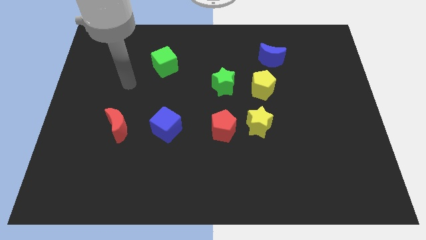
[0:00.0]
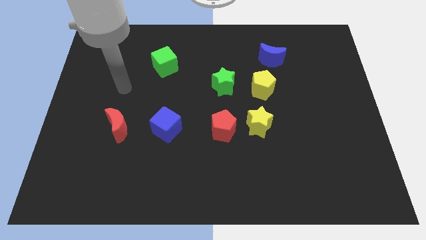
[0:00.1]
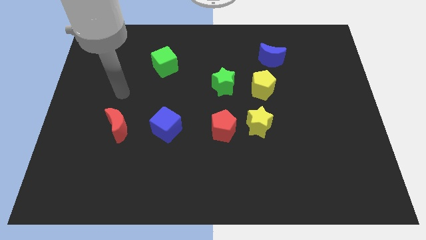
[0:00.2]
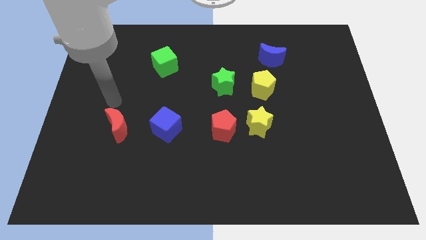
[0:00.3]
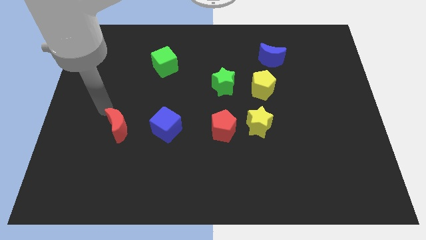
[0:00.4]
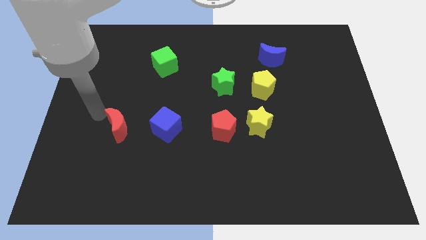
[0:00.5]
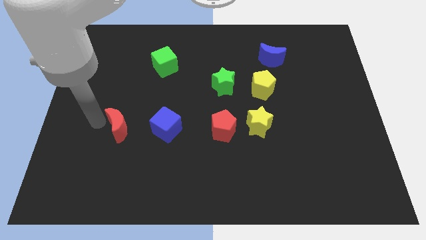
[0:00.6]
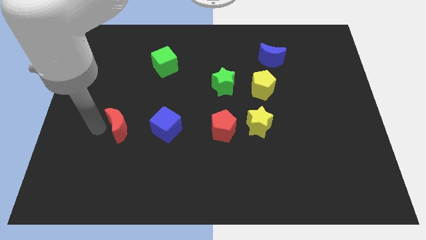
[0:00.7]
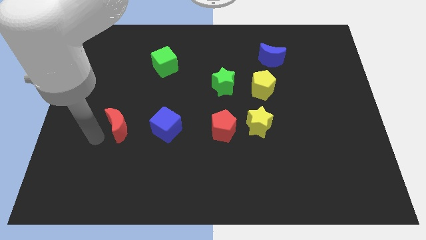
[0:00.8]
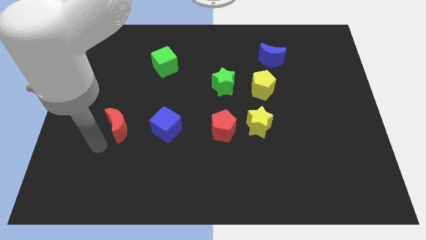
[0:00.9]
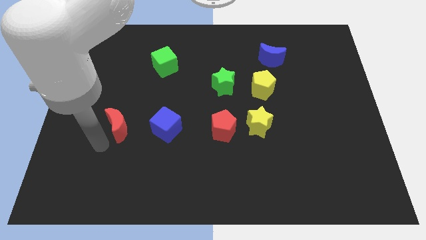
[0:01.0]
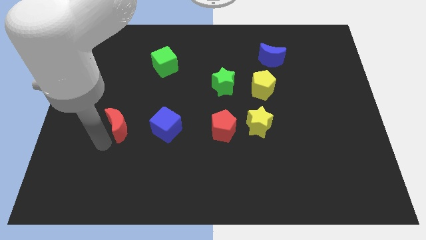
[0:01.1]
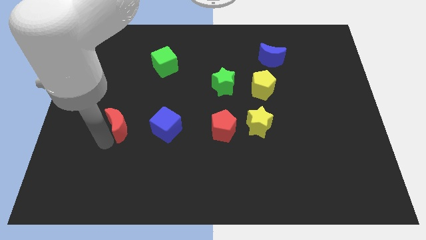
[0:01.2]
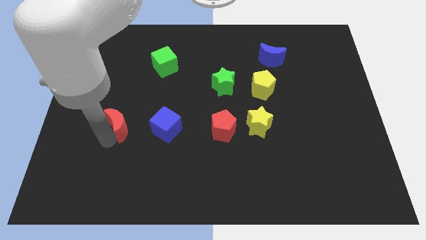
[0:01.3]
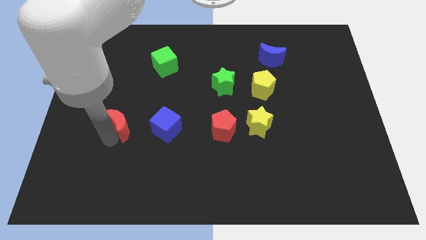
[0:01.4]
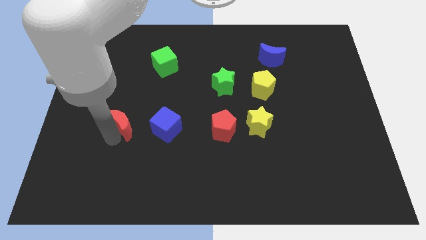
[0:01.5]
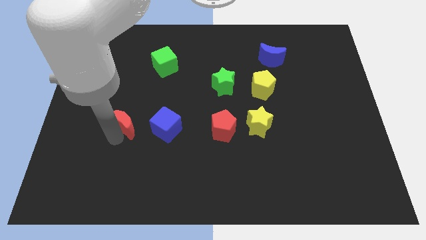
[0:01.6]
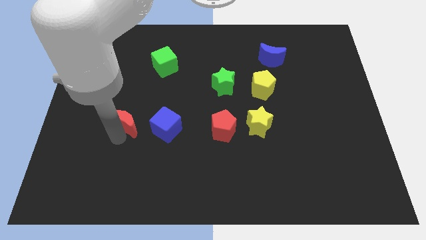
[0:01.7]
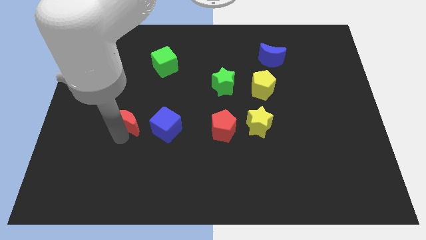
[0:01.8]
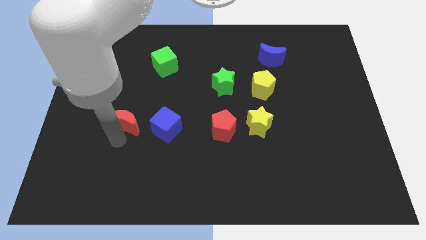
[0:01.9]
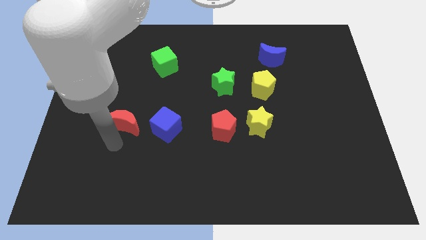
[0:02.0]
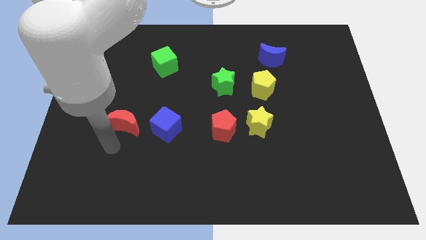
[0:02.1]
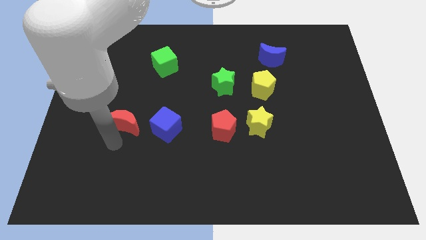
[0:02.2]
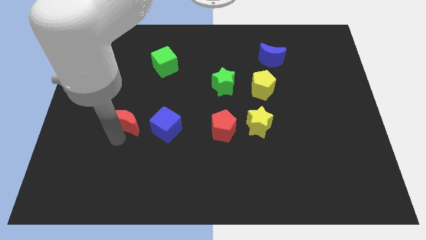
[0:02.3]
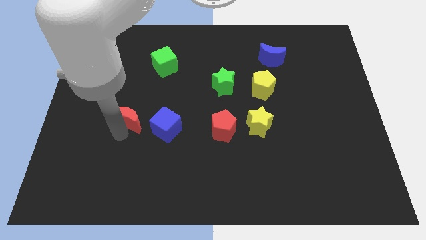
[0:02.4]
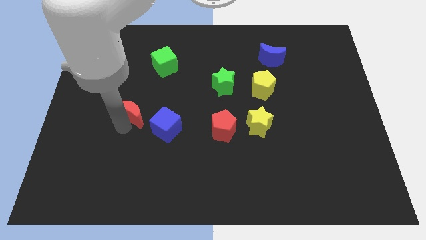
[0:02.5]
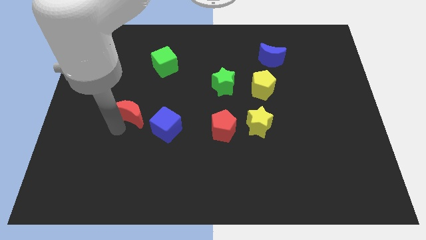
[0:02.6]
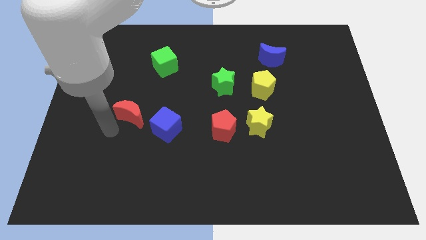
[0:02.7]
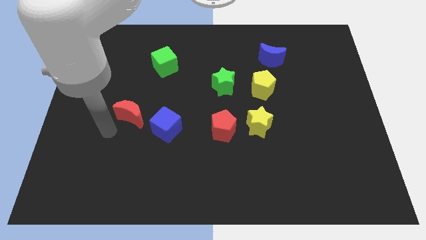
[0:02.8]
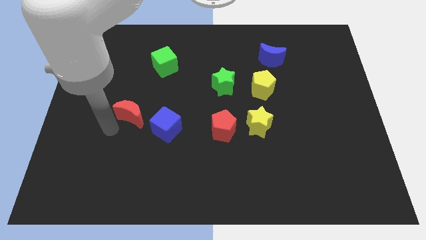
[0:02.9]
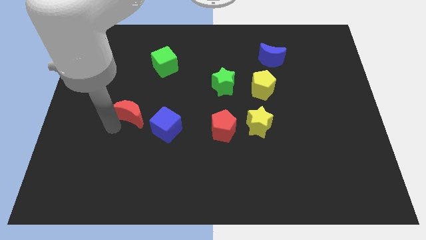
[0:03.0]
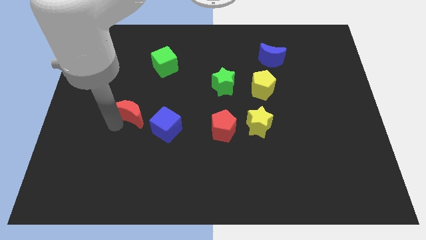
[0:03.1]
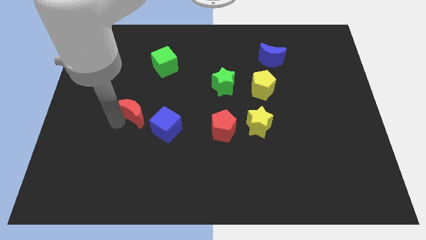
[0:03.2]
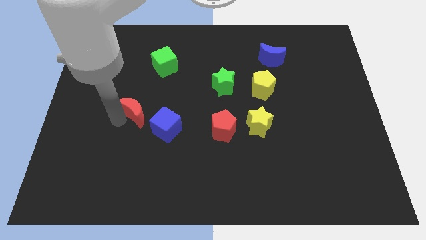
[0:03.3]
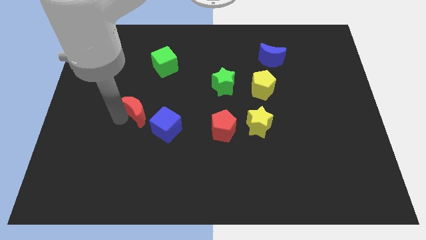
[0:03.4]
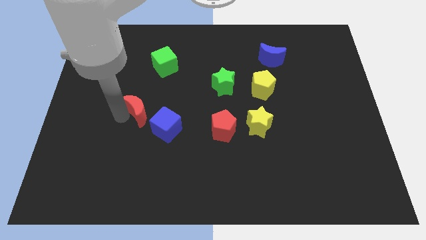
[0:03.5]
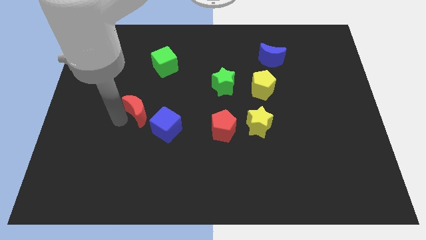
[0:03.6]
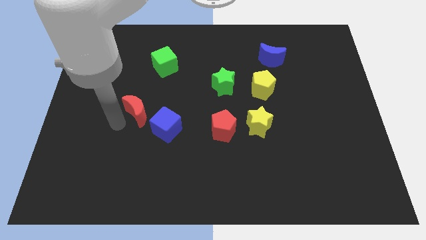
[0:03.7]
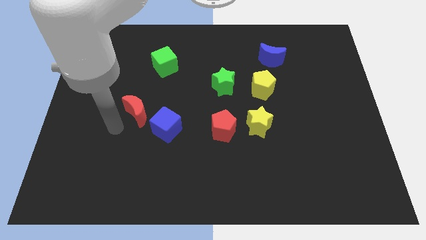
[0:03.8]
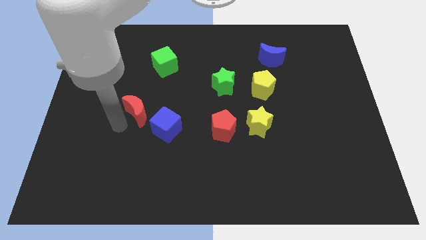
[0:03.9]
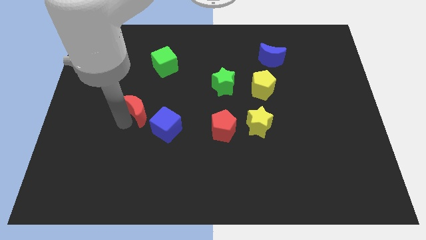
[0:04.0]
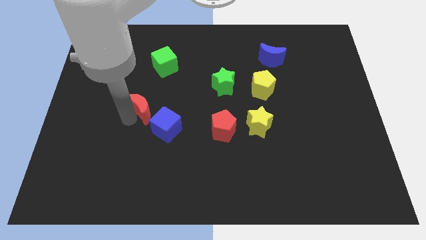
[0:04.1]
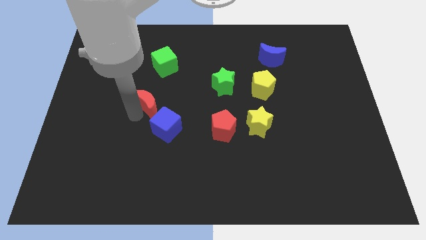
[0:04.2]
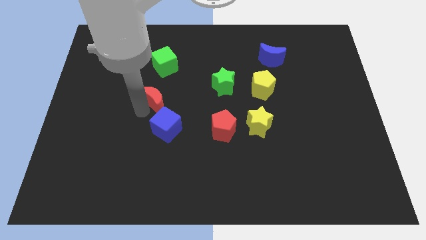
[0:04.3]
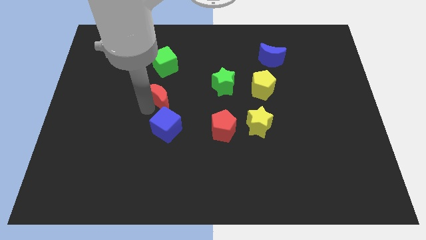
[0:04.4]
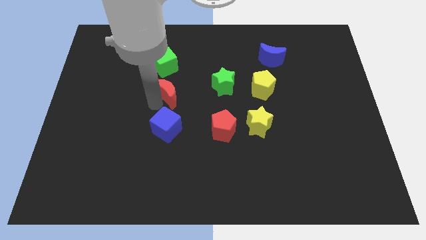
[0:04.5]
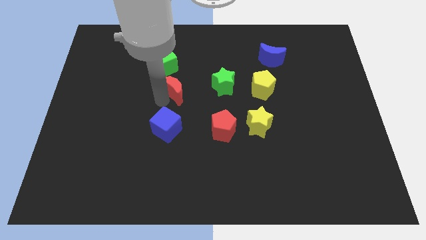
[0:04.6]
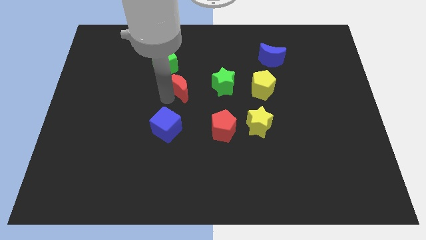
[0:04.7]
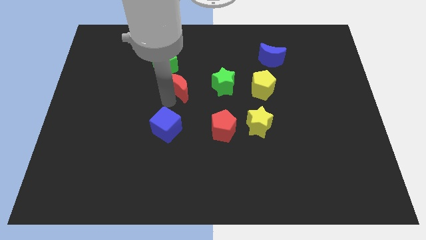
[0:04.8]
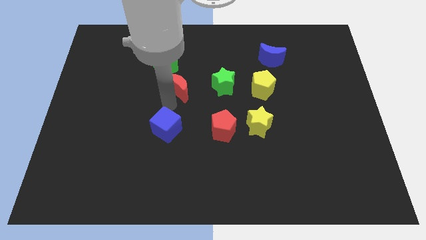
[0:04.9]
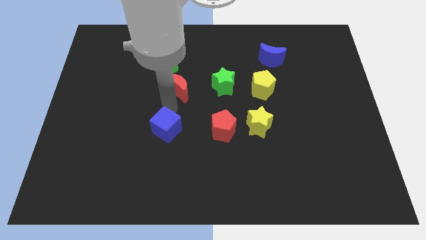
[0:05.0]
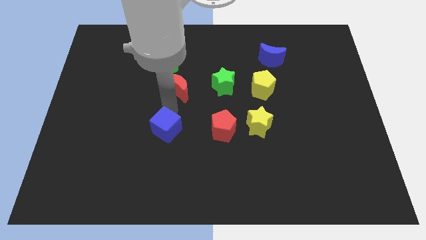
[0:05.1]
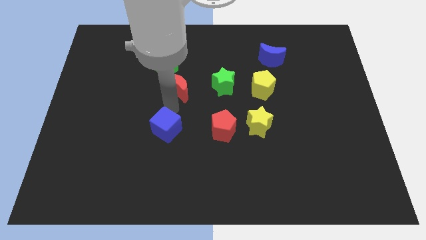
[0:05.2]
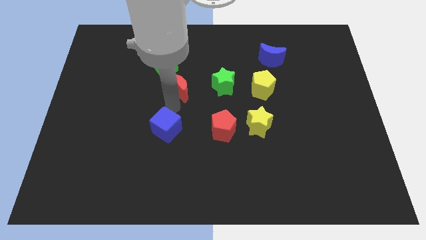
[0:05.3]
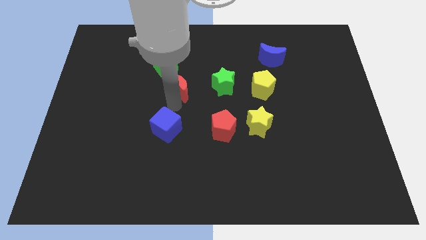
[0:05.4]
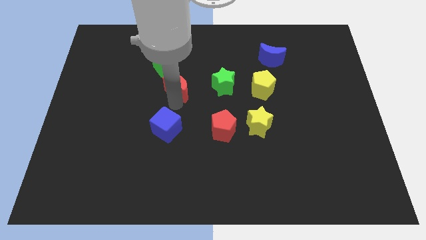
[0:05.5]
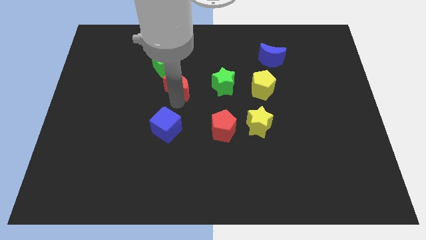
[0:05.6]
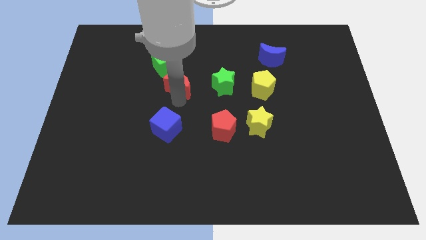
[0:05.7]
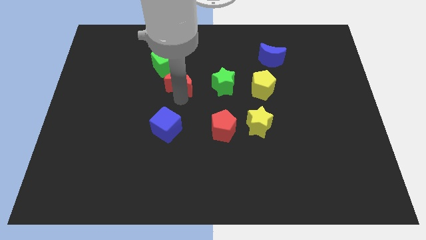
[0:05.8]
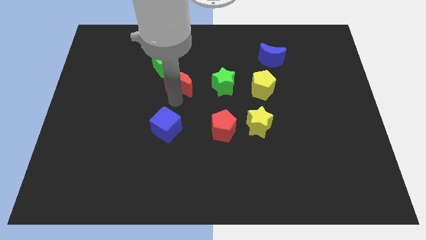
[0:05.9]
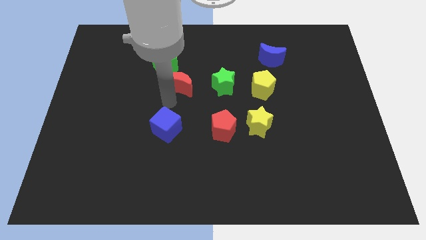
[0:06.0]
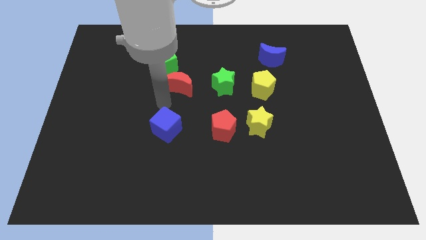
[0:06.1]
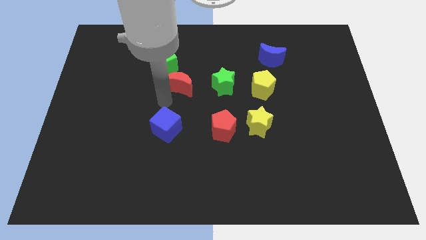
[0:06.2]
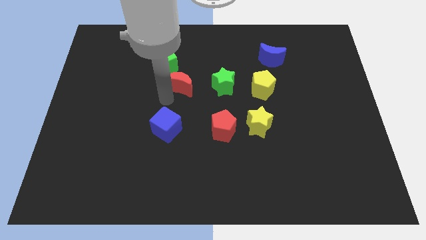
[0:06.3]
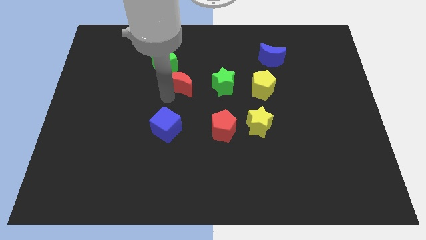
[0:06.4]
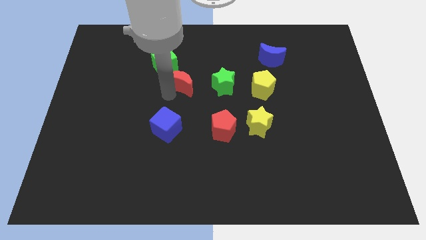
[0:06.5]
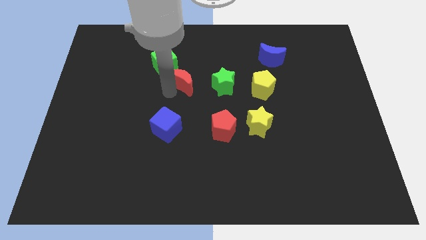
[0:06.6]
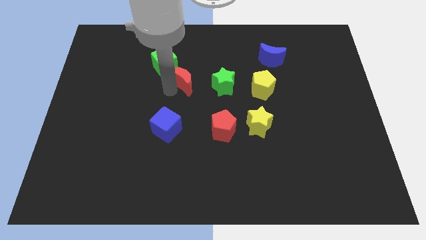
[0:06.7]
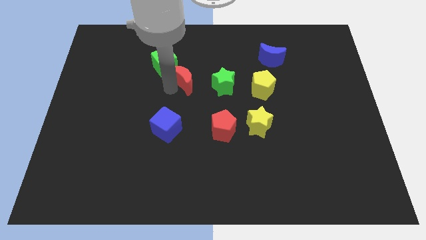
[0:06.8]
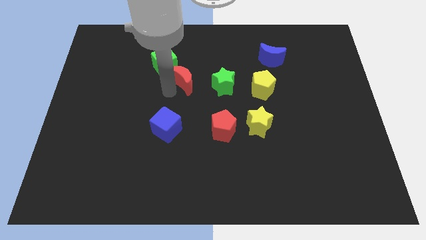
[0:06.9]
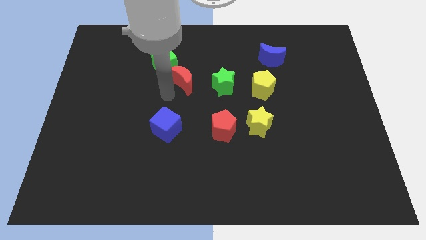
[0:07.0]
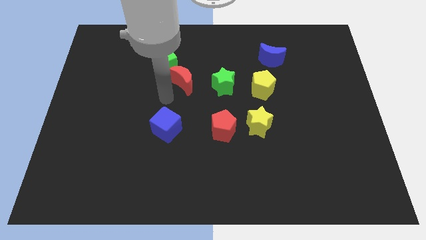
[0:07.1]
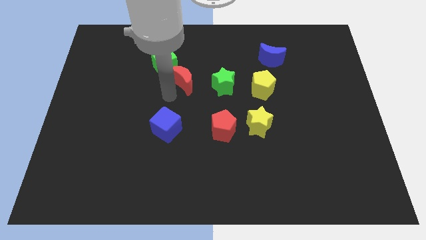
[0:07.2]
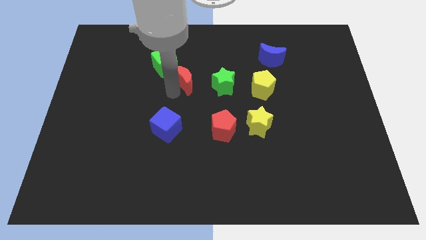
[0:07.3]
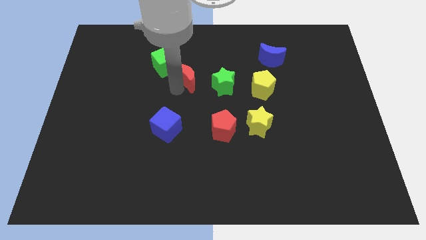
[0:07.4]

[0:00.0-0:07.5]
move the red moon up and to the right

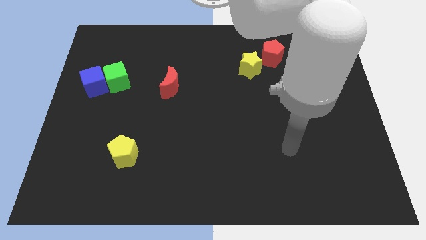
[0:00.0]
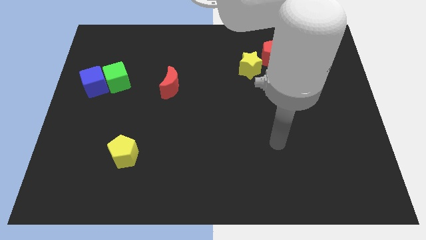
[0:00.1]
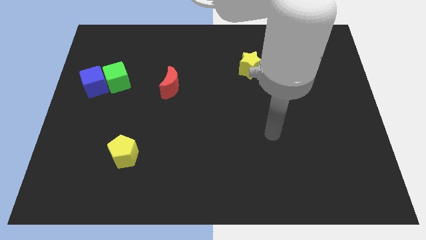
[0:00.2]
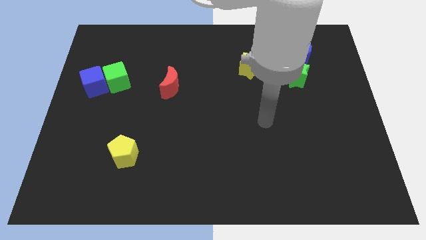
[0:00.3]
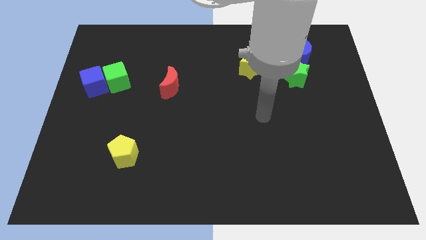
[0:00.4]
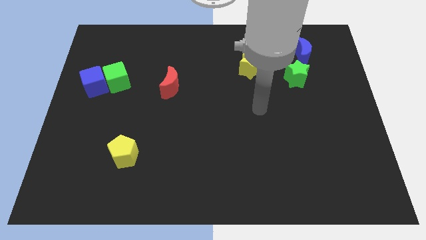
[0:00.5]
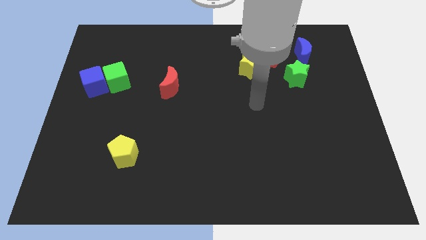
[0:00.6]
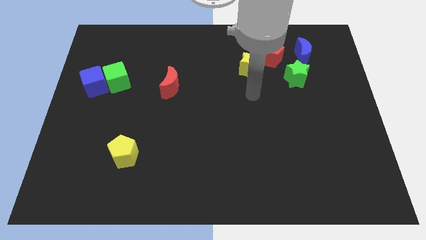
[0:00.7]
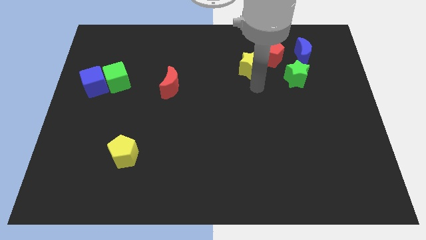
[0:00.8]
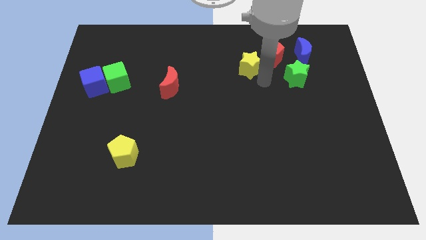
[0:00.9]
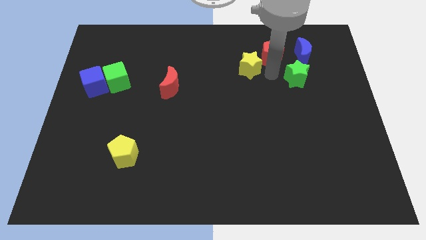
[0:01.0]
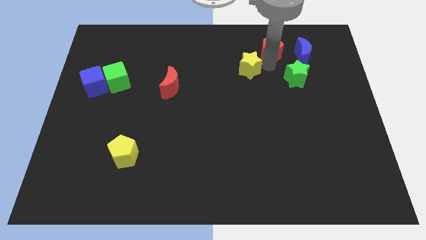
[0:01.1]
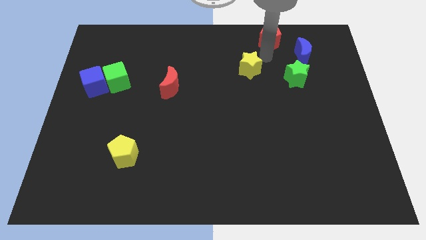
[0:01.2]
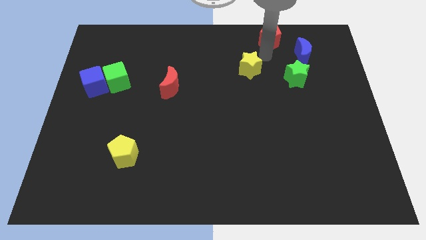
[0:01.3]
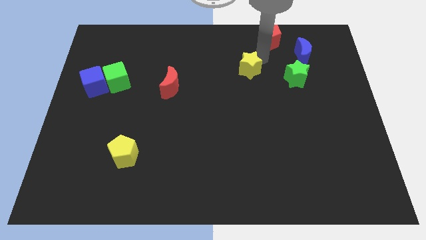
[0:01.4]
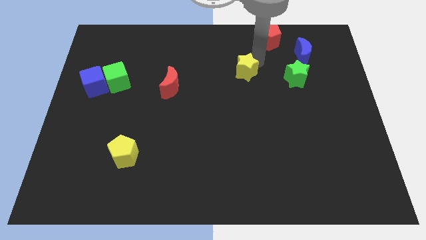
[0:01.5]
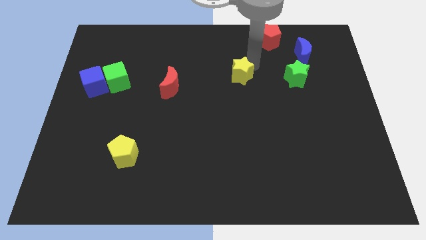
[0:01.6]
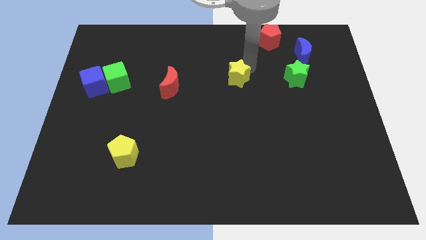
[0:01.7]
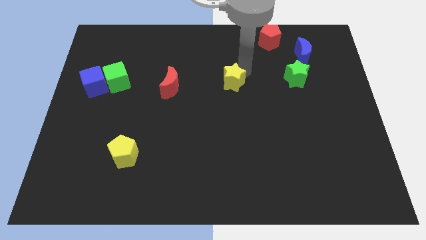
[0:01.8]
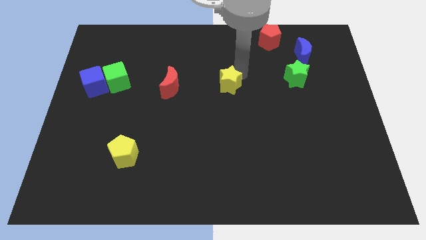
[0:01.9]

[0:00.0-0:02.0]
slightly slide the yellow star downwards and left
